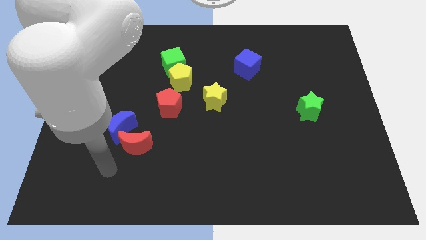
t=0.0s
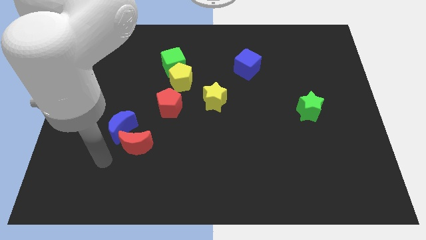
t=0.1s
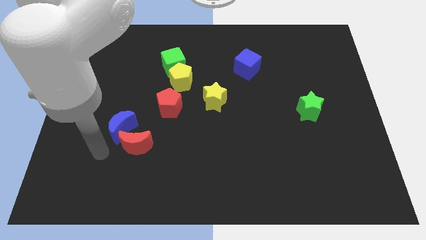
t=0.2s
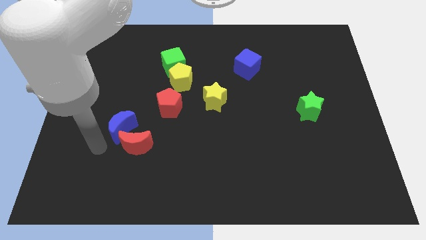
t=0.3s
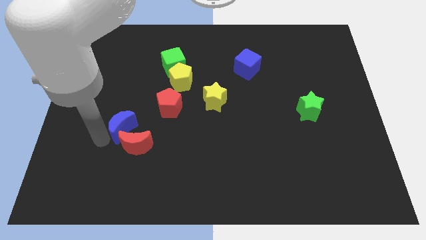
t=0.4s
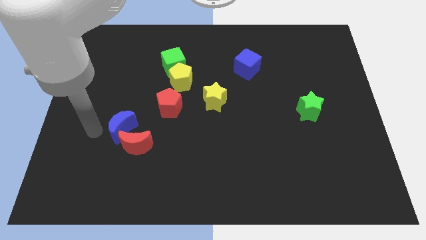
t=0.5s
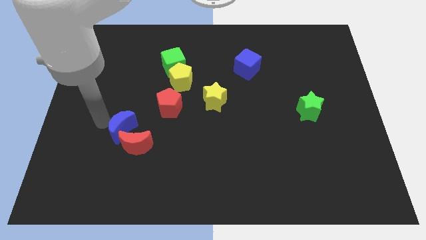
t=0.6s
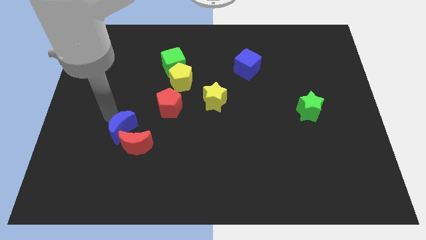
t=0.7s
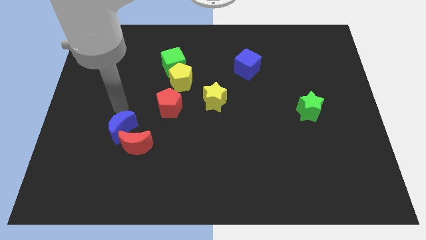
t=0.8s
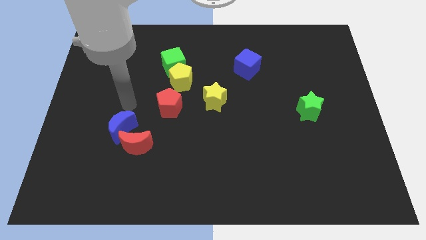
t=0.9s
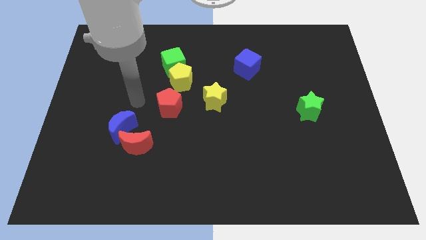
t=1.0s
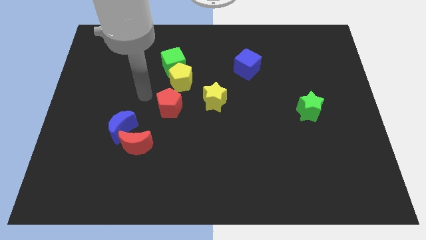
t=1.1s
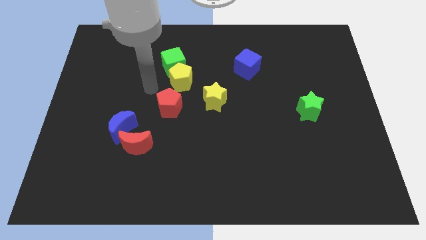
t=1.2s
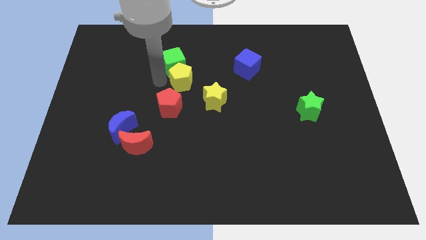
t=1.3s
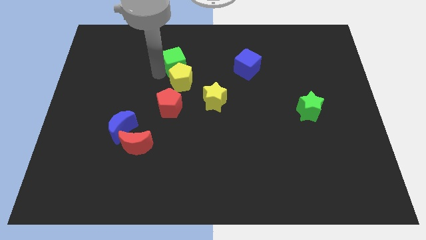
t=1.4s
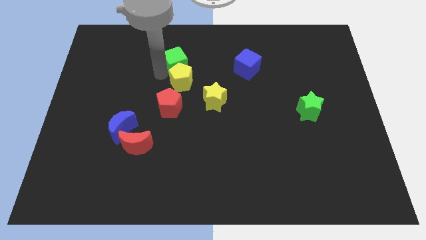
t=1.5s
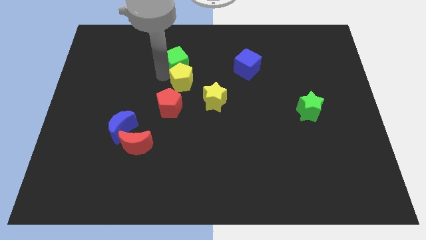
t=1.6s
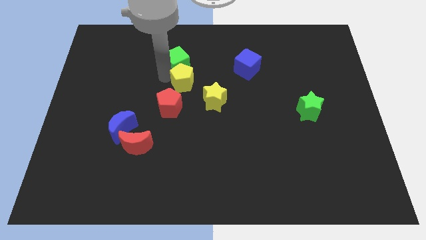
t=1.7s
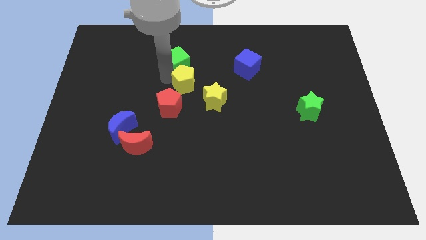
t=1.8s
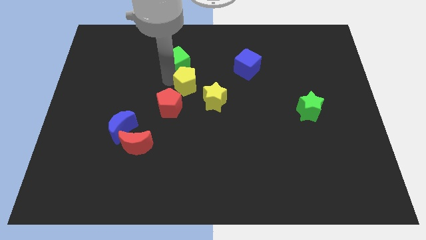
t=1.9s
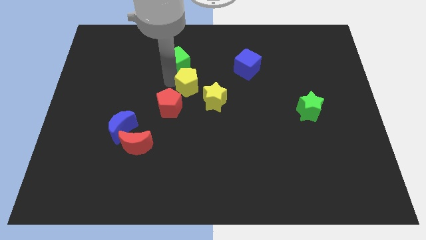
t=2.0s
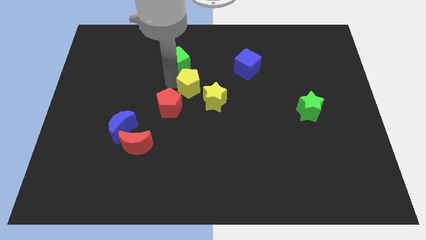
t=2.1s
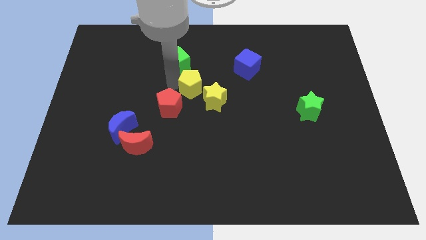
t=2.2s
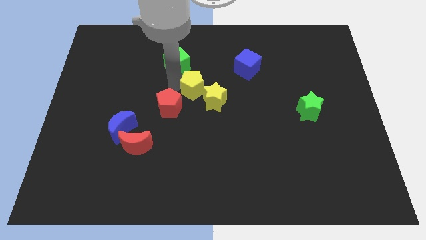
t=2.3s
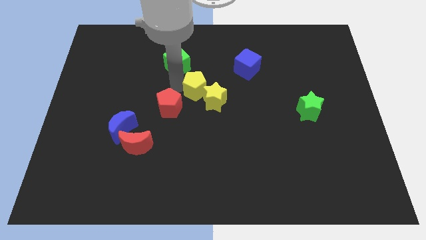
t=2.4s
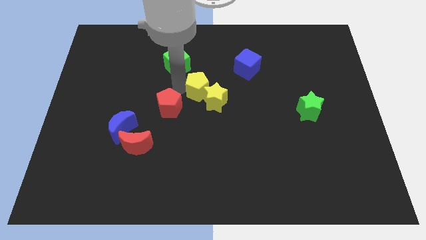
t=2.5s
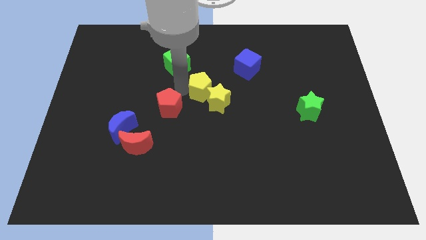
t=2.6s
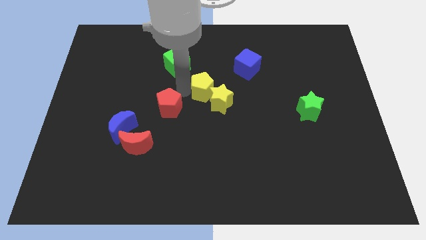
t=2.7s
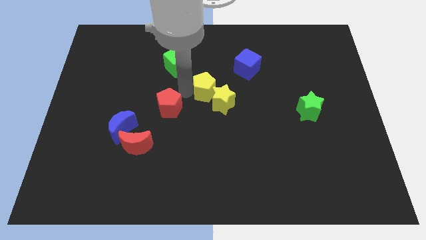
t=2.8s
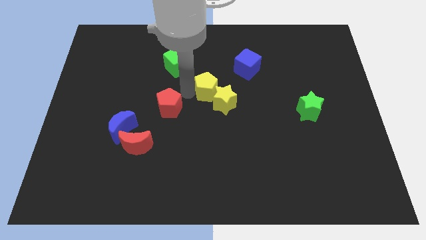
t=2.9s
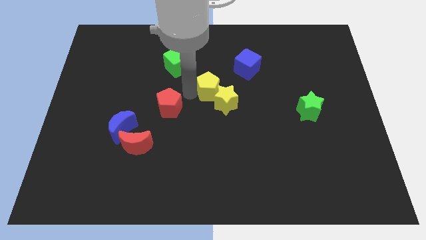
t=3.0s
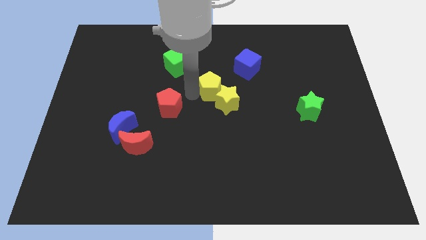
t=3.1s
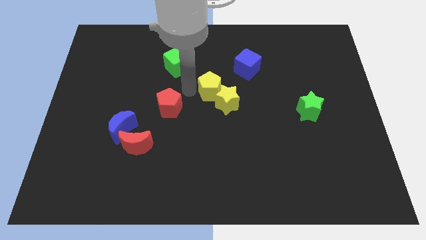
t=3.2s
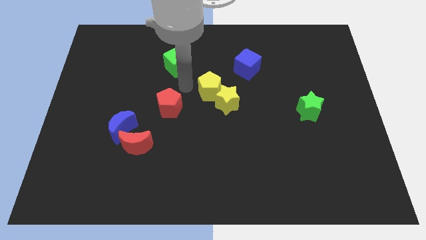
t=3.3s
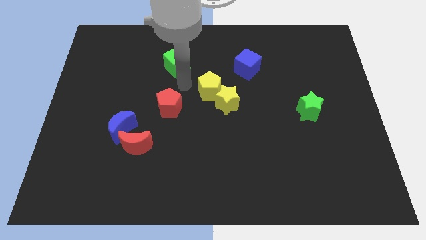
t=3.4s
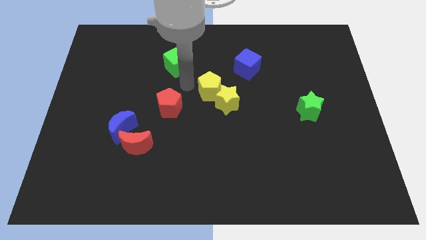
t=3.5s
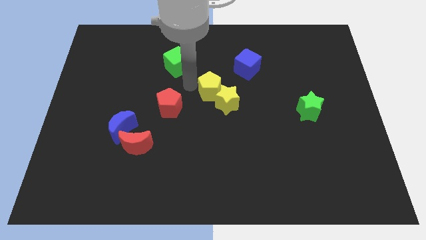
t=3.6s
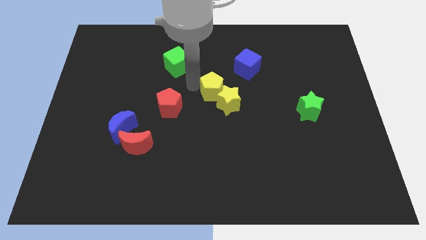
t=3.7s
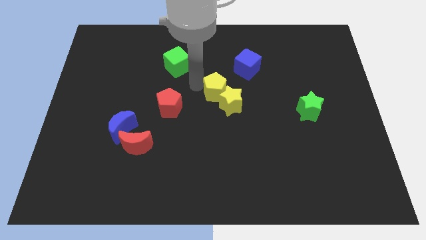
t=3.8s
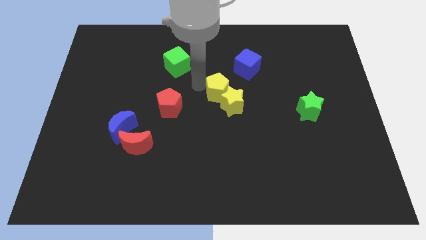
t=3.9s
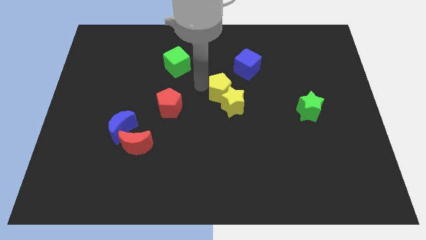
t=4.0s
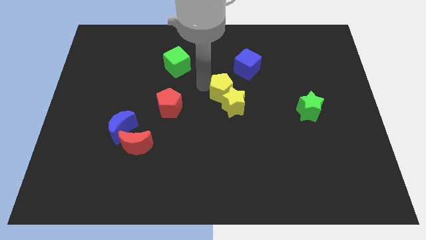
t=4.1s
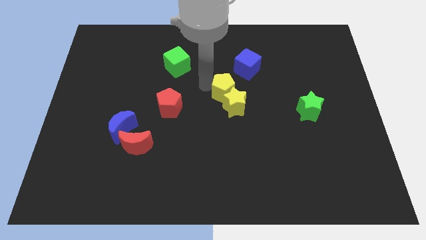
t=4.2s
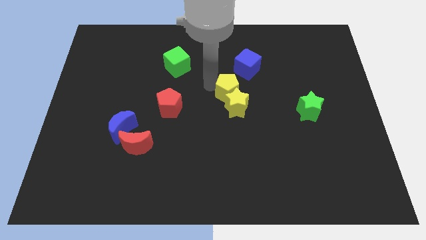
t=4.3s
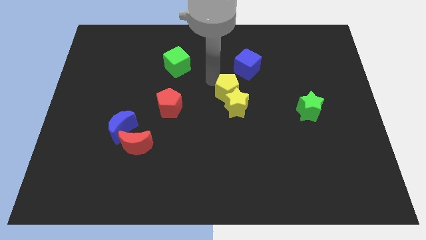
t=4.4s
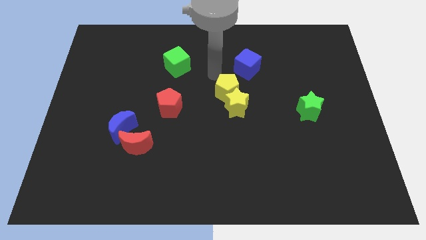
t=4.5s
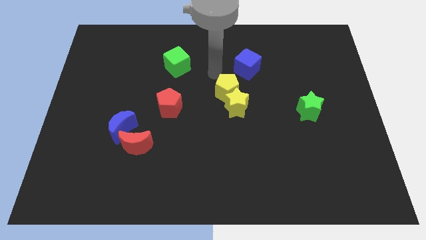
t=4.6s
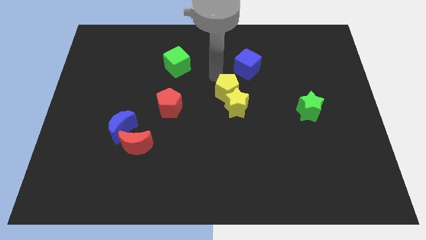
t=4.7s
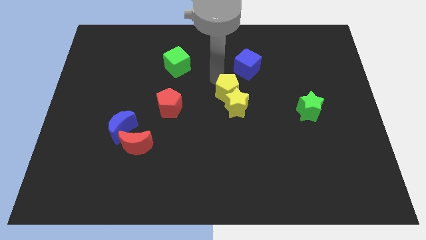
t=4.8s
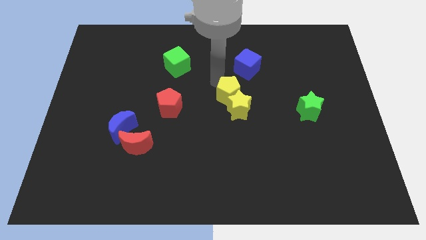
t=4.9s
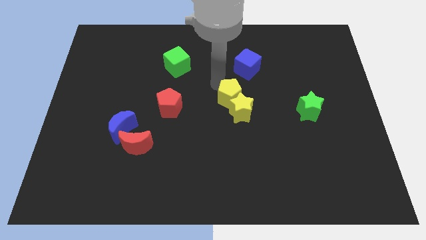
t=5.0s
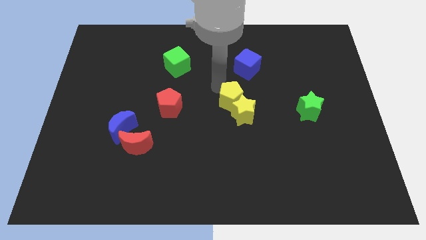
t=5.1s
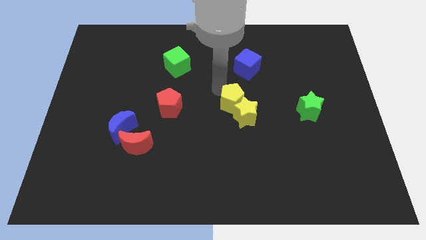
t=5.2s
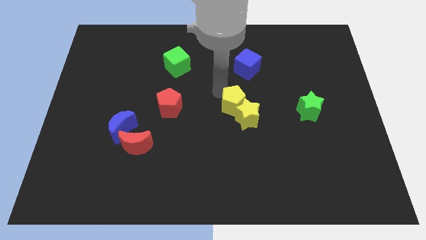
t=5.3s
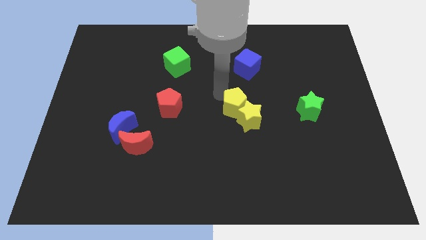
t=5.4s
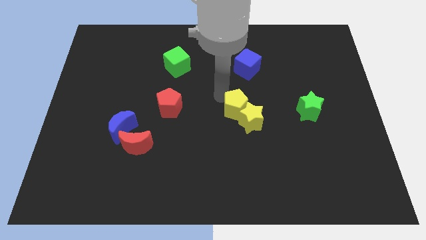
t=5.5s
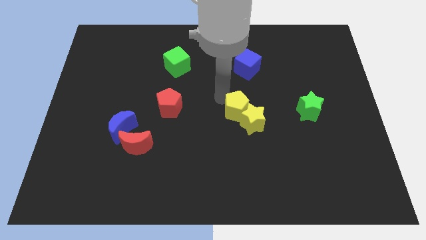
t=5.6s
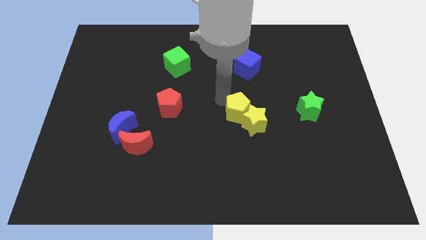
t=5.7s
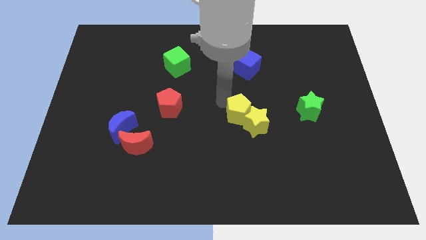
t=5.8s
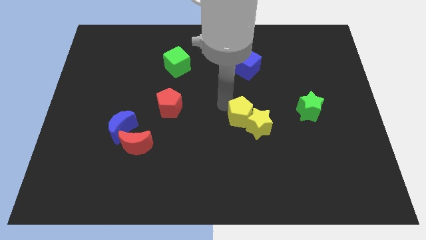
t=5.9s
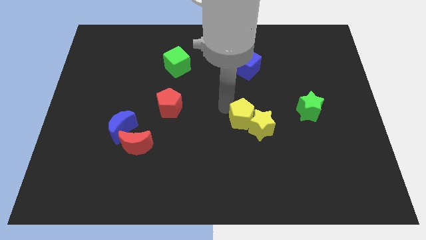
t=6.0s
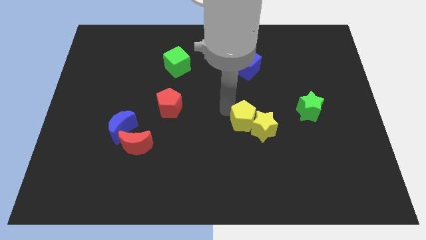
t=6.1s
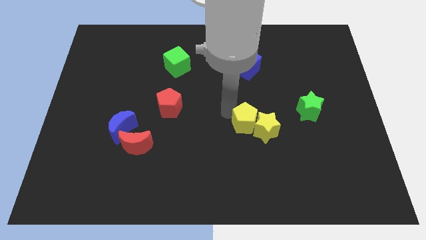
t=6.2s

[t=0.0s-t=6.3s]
slide the yellow pentagon downwards and right diagonally

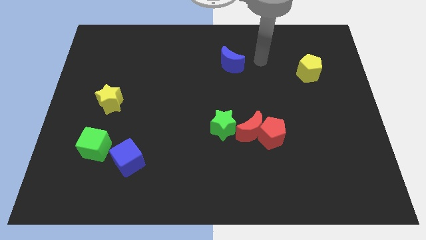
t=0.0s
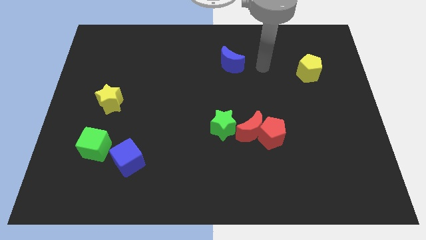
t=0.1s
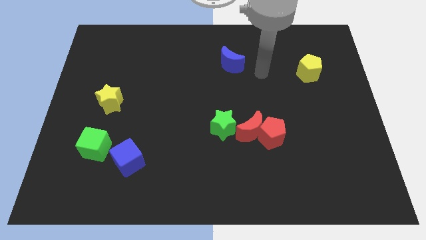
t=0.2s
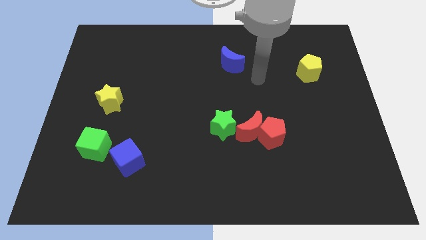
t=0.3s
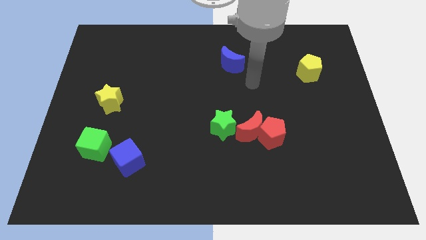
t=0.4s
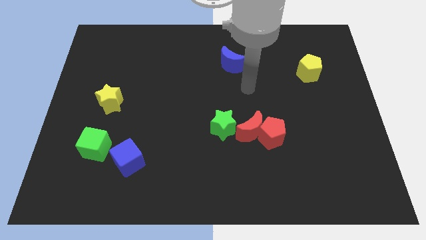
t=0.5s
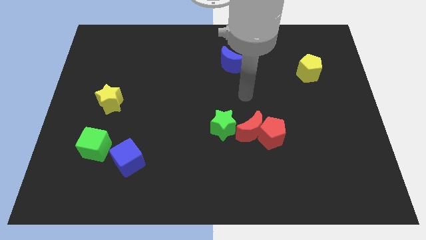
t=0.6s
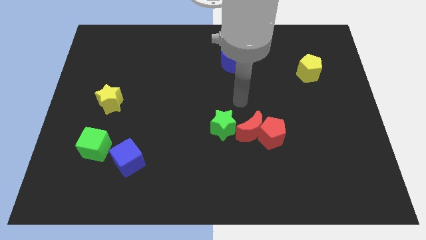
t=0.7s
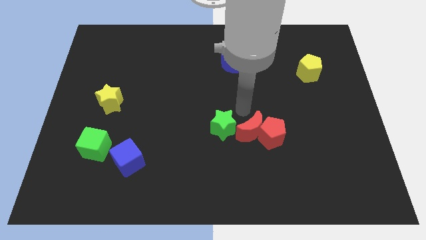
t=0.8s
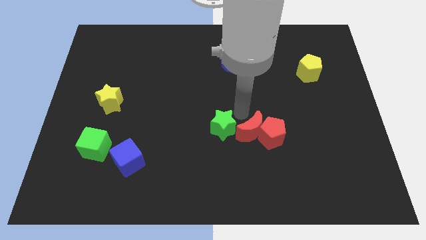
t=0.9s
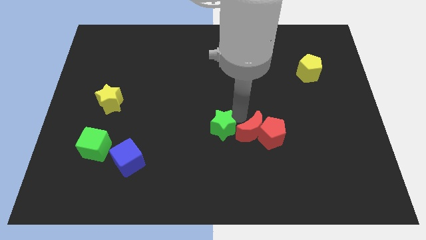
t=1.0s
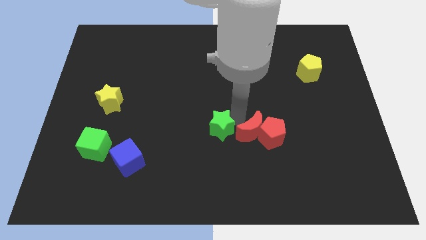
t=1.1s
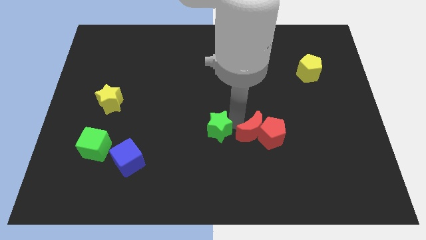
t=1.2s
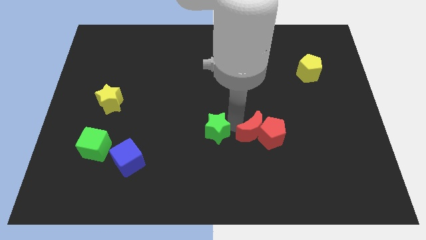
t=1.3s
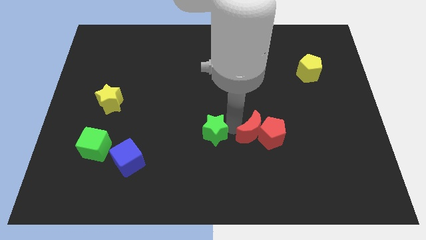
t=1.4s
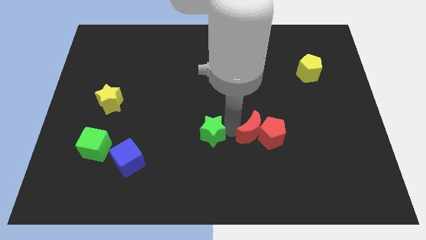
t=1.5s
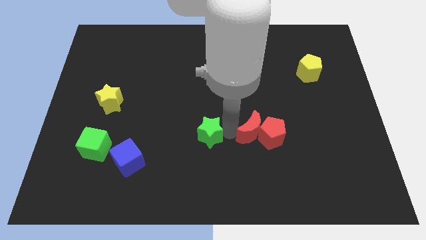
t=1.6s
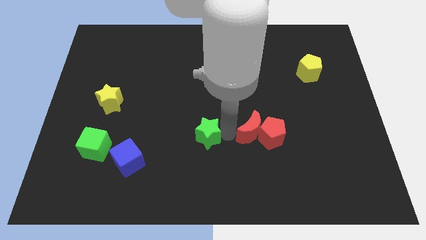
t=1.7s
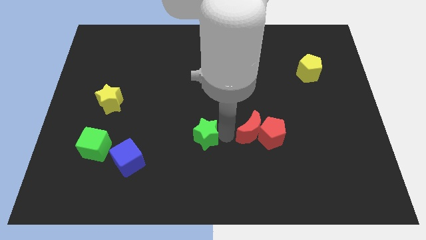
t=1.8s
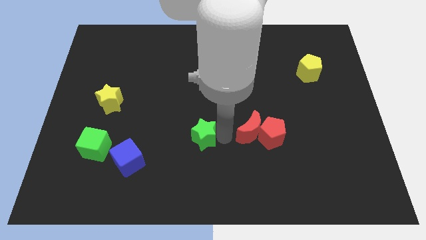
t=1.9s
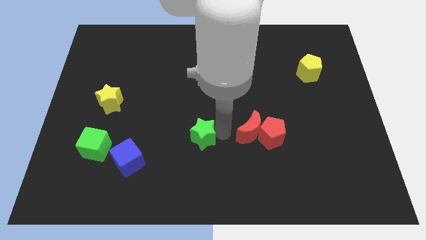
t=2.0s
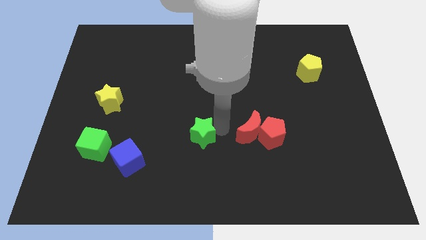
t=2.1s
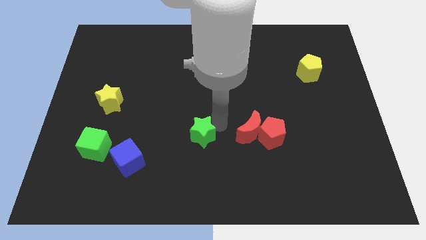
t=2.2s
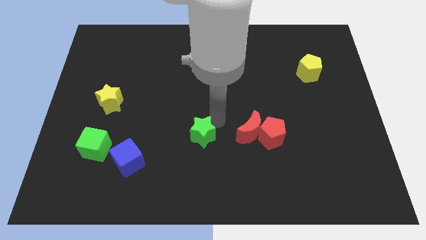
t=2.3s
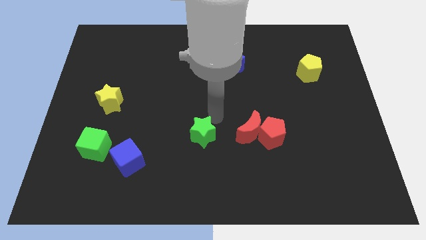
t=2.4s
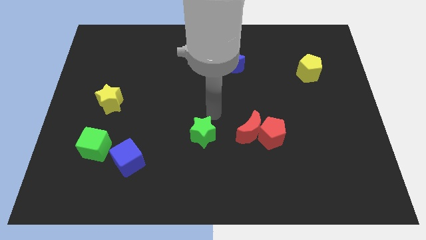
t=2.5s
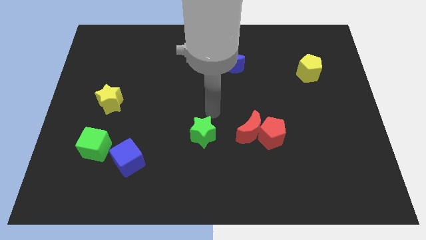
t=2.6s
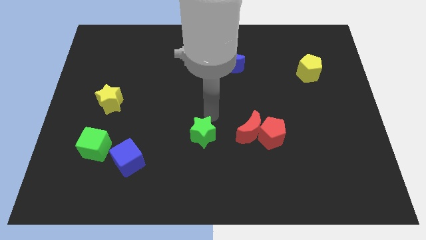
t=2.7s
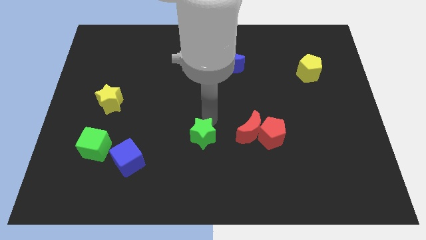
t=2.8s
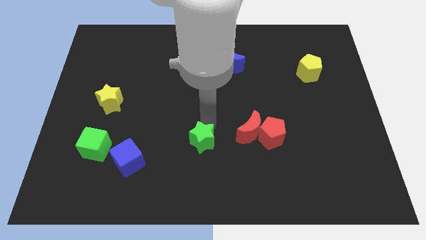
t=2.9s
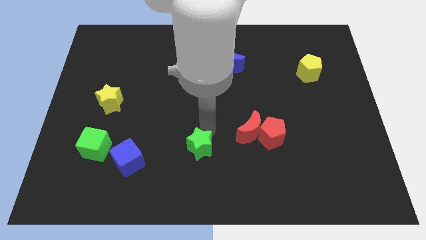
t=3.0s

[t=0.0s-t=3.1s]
push the green star a bit down and left
